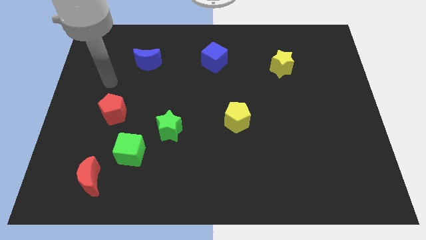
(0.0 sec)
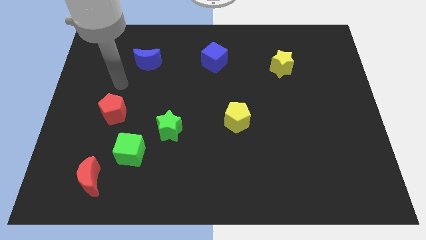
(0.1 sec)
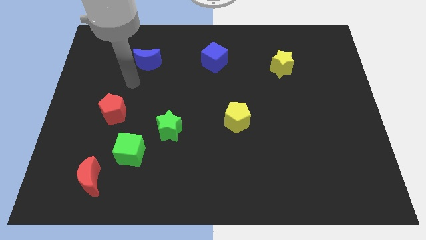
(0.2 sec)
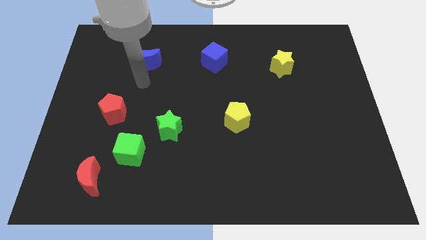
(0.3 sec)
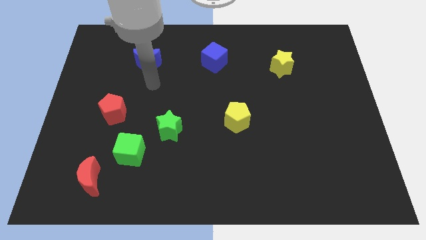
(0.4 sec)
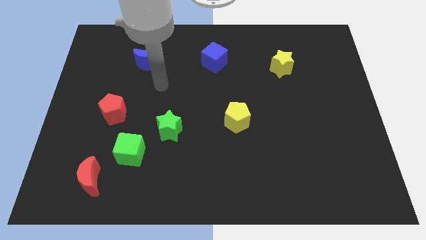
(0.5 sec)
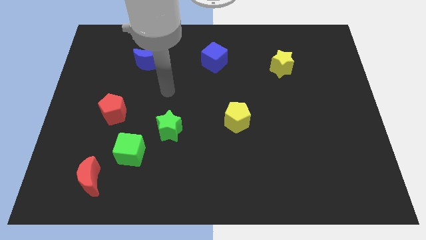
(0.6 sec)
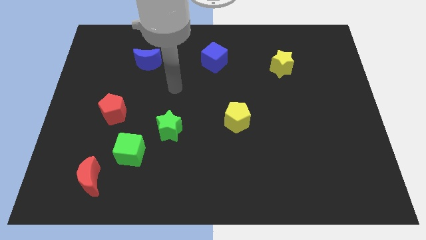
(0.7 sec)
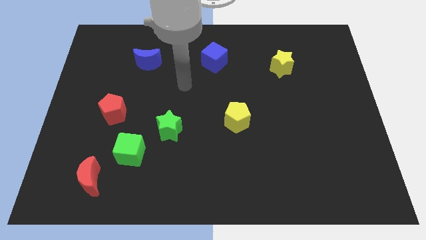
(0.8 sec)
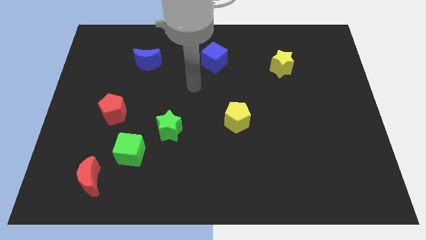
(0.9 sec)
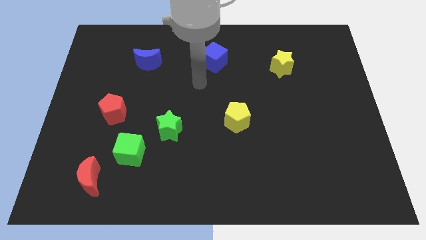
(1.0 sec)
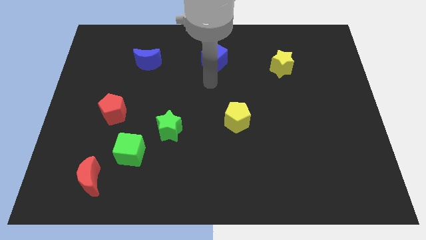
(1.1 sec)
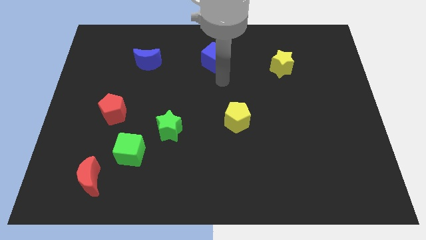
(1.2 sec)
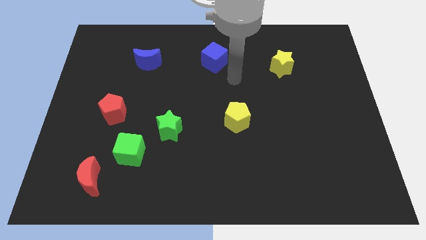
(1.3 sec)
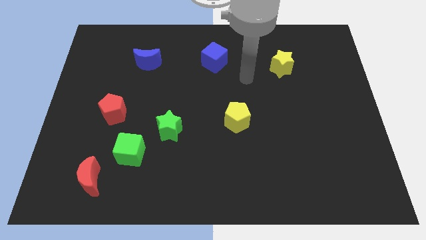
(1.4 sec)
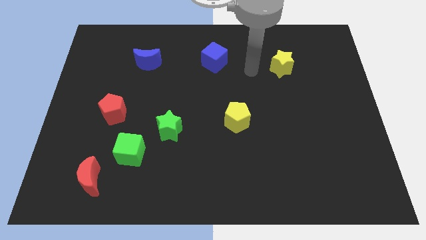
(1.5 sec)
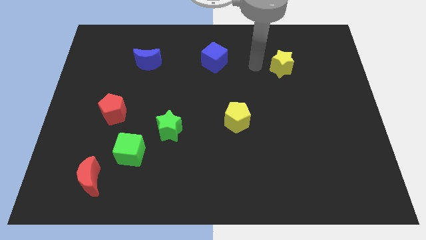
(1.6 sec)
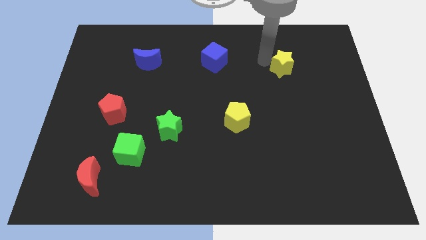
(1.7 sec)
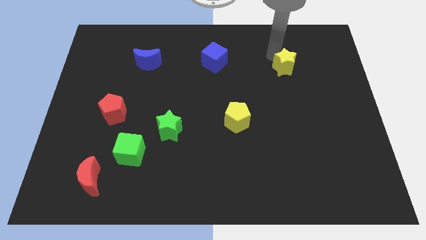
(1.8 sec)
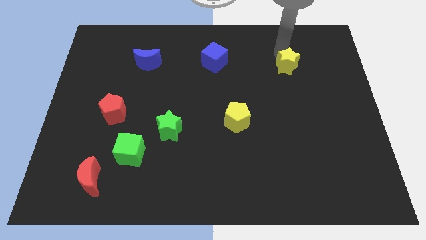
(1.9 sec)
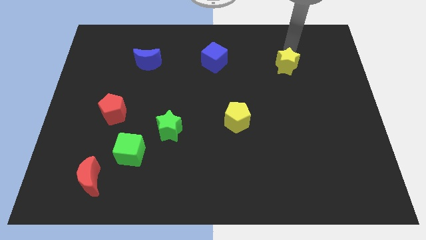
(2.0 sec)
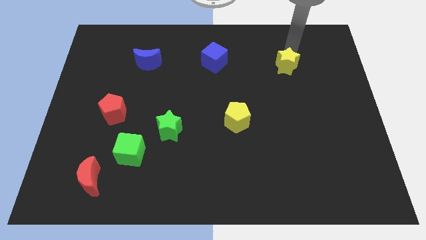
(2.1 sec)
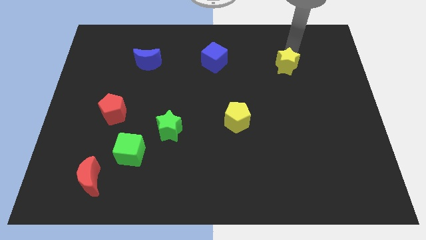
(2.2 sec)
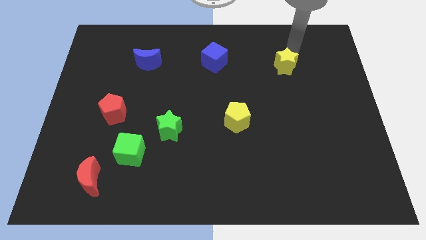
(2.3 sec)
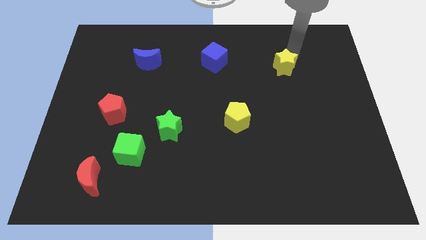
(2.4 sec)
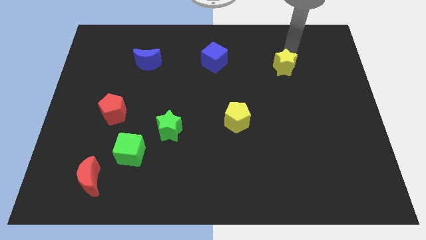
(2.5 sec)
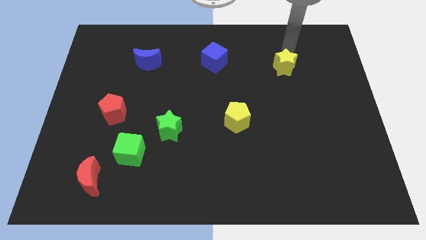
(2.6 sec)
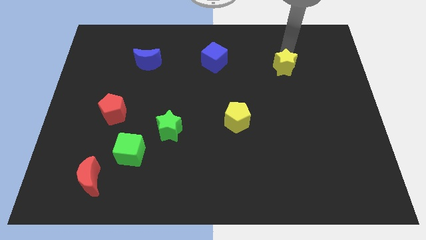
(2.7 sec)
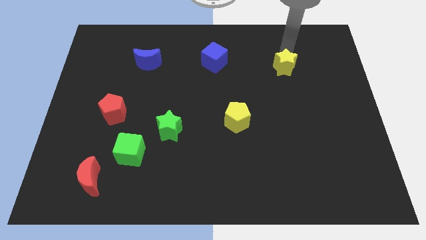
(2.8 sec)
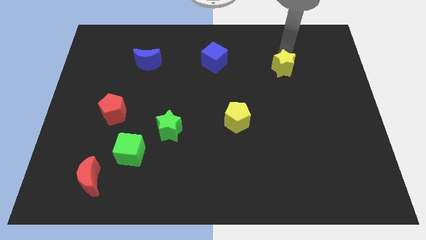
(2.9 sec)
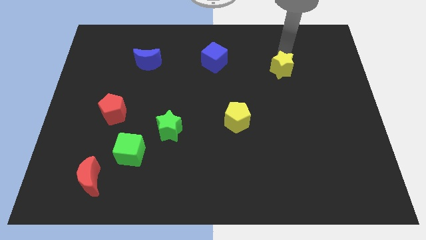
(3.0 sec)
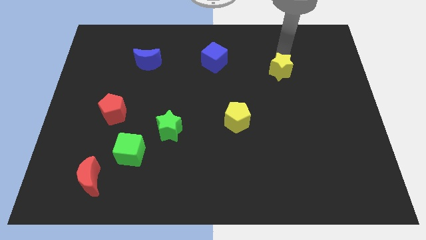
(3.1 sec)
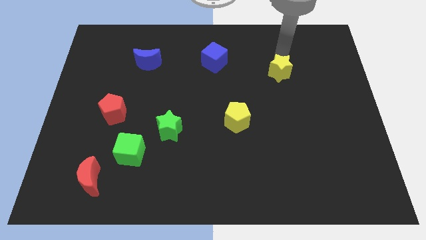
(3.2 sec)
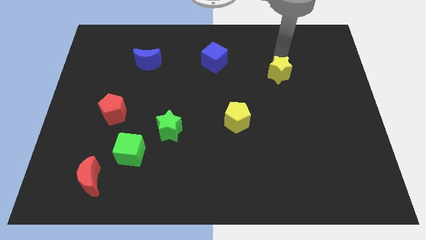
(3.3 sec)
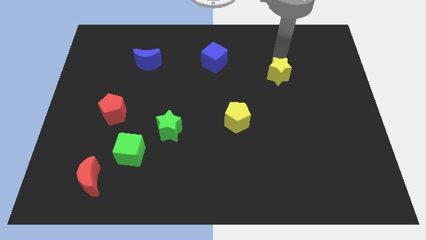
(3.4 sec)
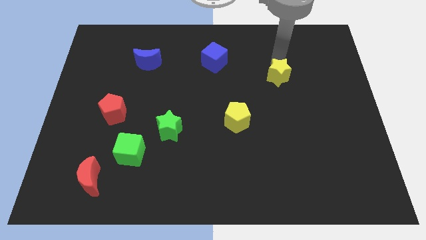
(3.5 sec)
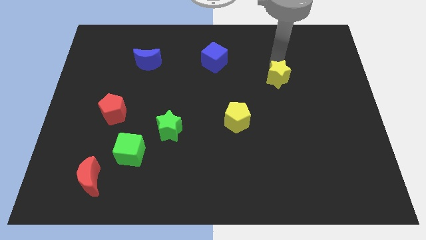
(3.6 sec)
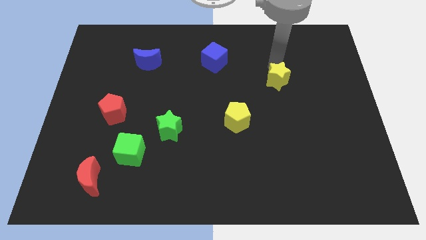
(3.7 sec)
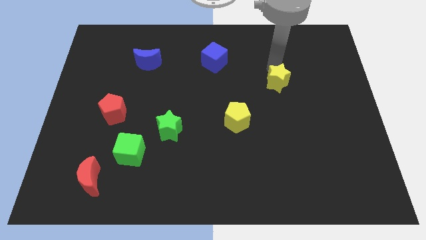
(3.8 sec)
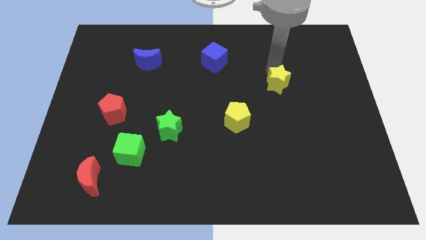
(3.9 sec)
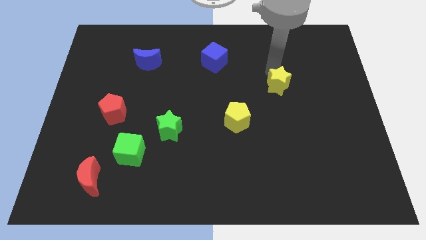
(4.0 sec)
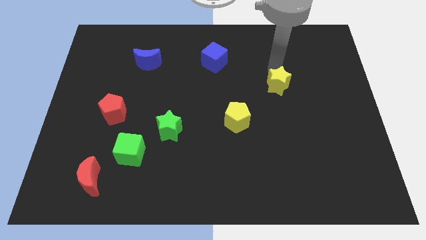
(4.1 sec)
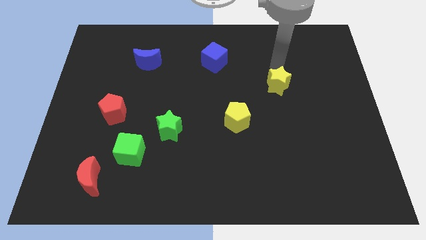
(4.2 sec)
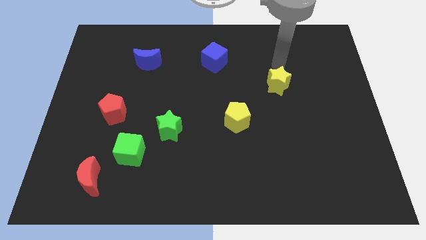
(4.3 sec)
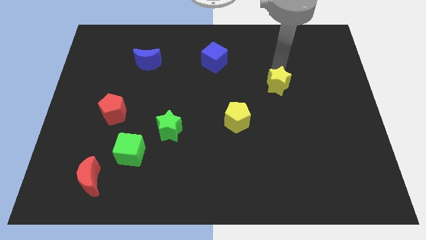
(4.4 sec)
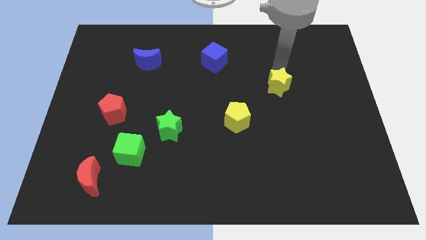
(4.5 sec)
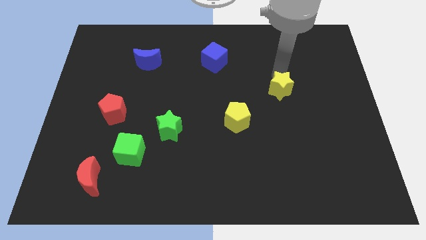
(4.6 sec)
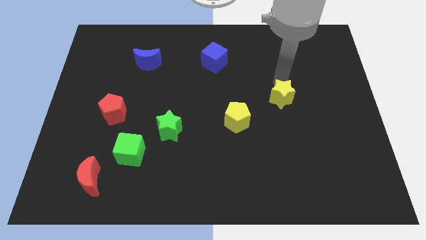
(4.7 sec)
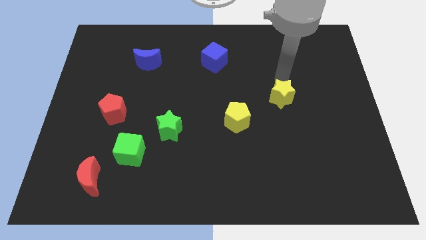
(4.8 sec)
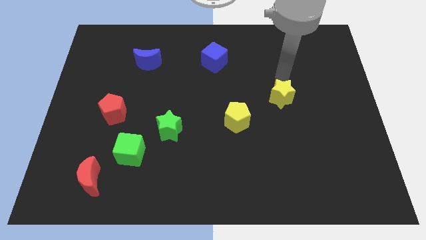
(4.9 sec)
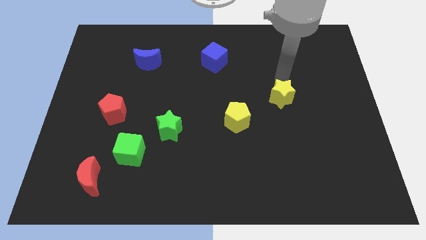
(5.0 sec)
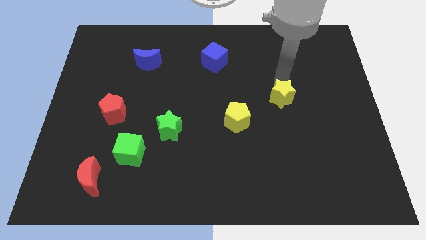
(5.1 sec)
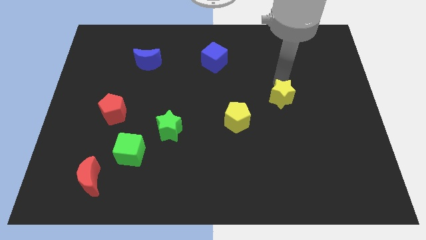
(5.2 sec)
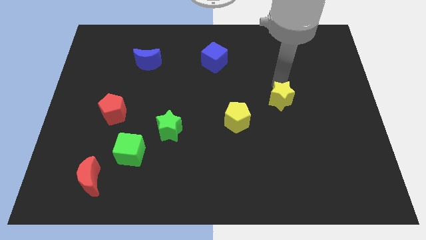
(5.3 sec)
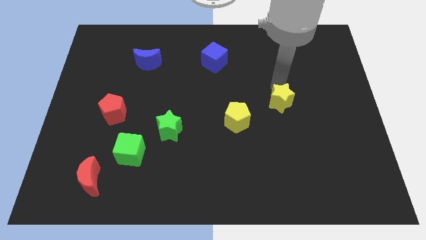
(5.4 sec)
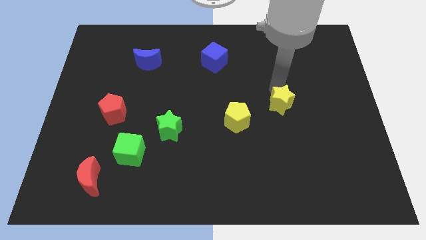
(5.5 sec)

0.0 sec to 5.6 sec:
slide the yellow star to the right side of the yellow pentagon

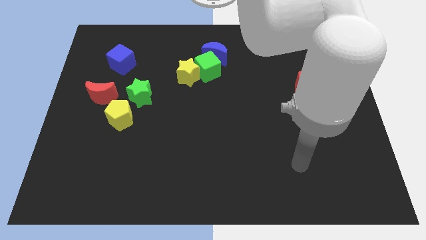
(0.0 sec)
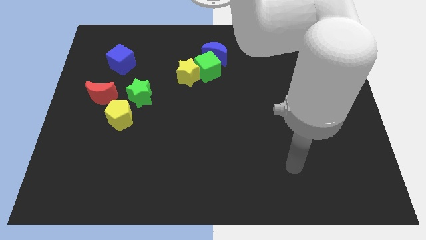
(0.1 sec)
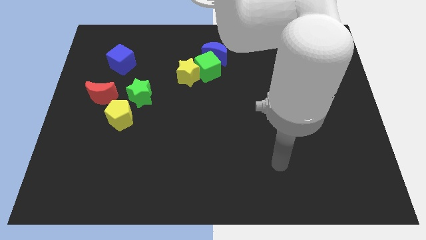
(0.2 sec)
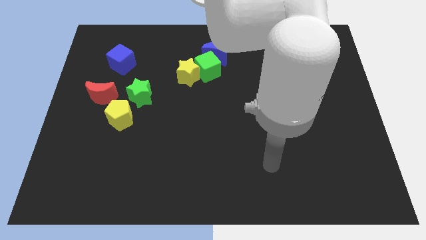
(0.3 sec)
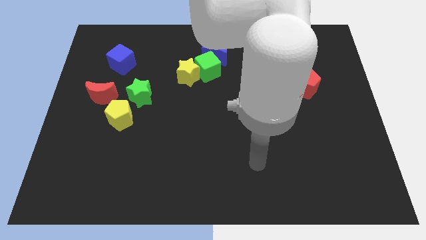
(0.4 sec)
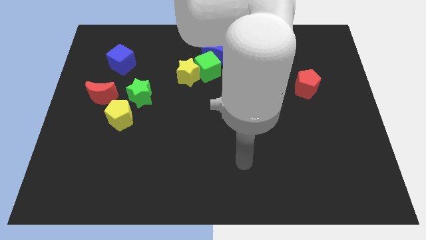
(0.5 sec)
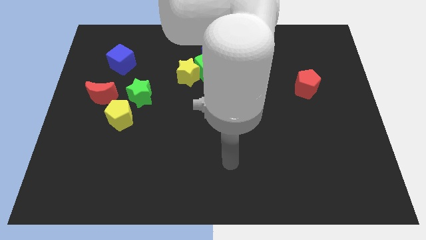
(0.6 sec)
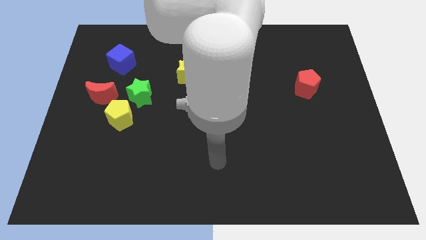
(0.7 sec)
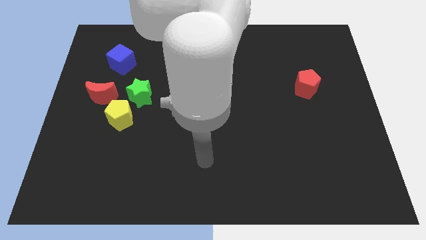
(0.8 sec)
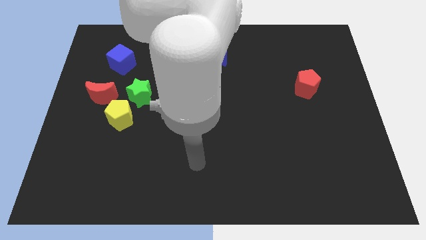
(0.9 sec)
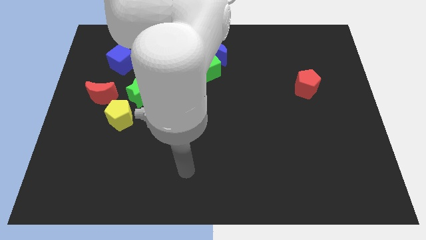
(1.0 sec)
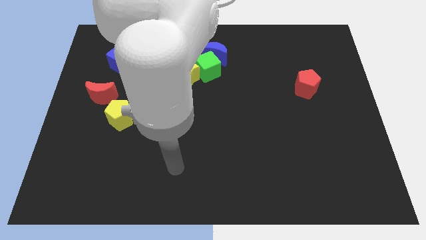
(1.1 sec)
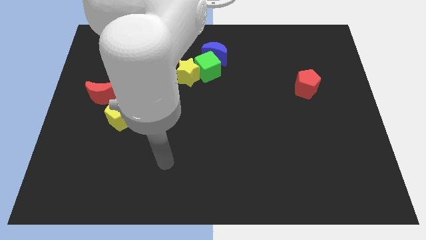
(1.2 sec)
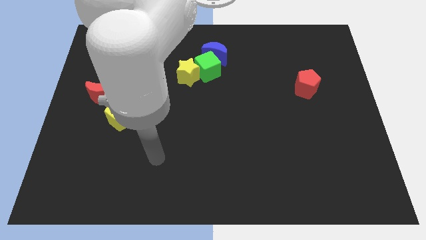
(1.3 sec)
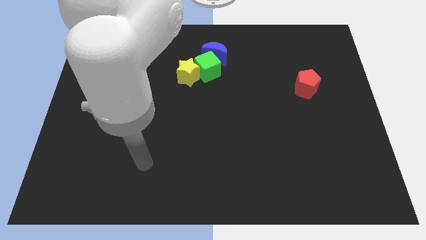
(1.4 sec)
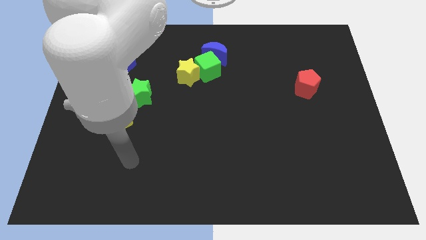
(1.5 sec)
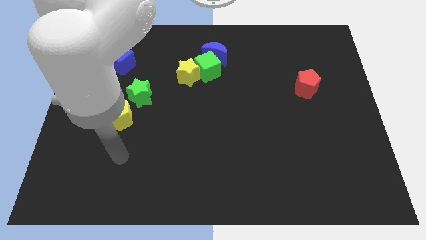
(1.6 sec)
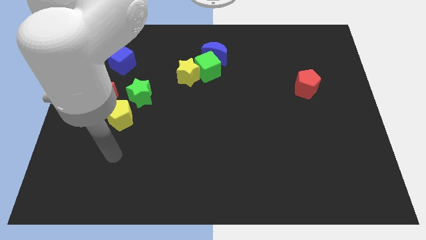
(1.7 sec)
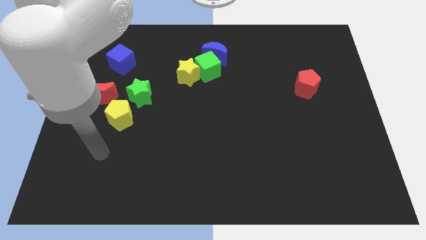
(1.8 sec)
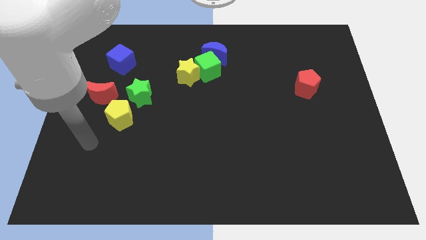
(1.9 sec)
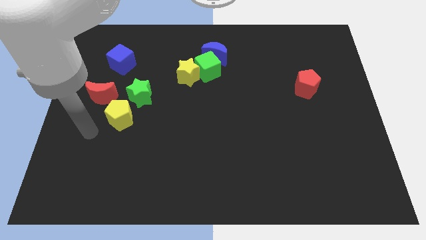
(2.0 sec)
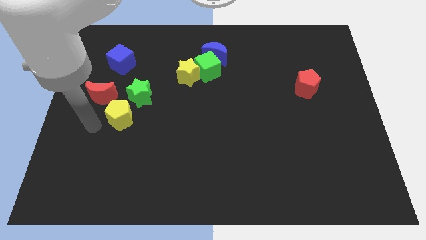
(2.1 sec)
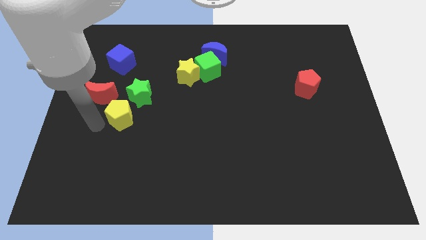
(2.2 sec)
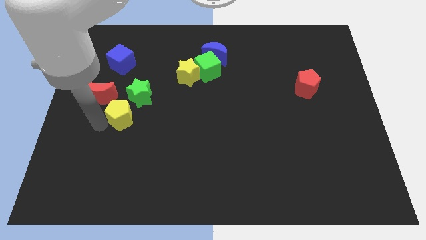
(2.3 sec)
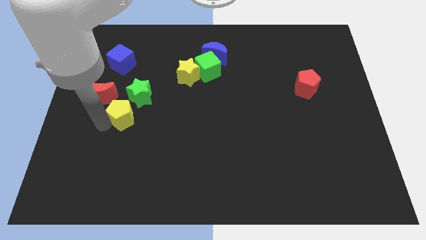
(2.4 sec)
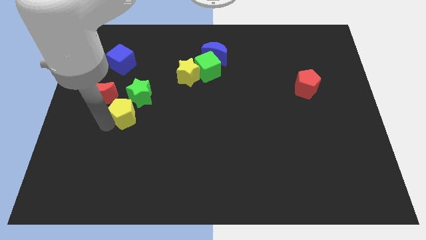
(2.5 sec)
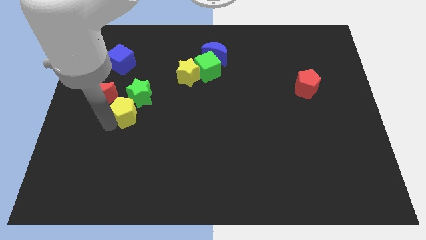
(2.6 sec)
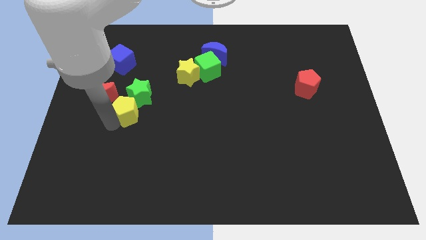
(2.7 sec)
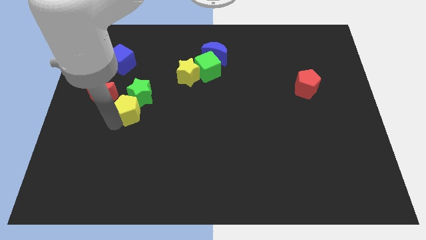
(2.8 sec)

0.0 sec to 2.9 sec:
push the yellow pentagon to the right of the red moon
